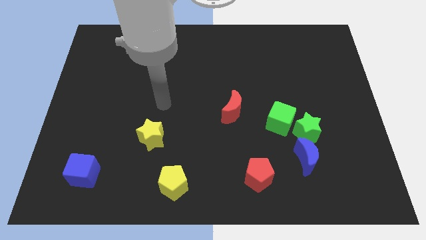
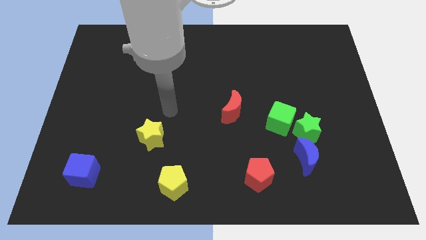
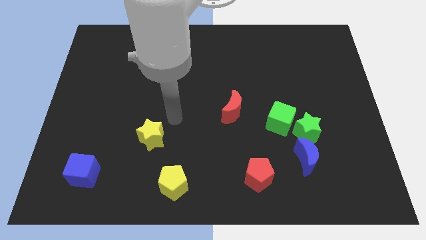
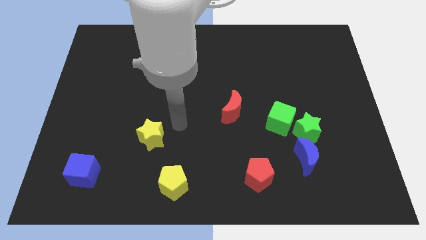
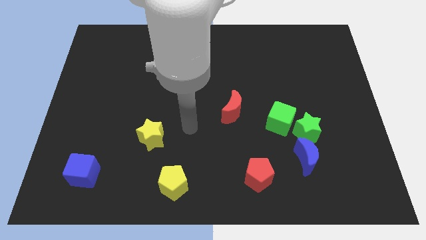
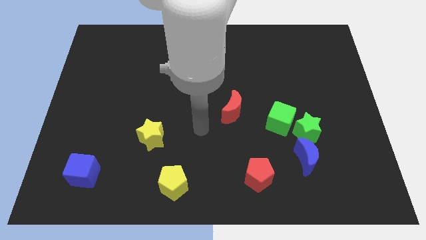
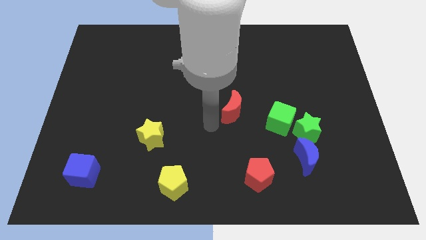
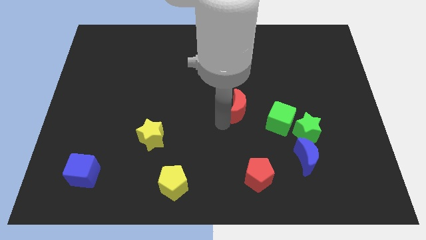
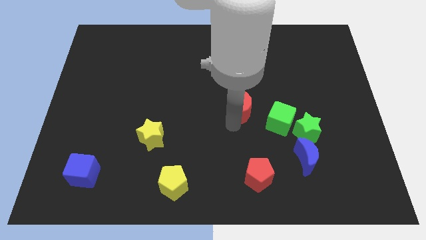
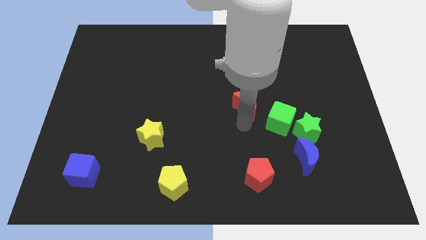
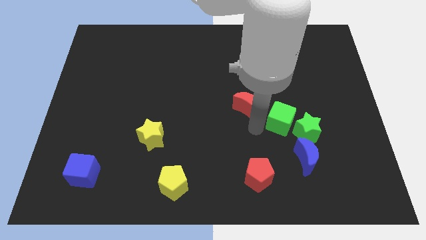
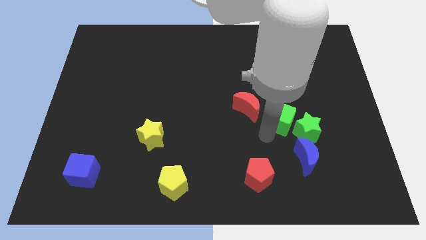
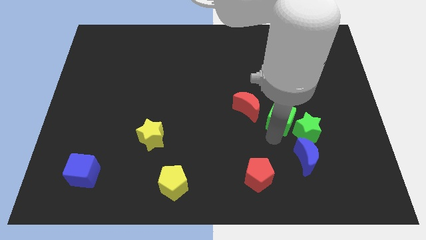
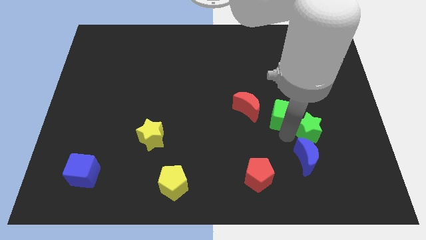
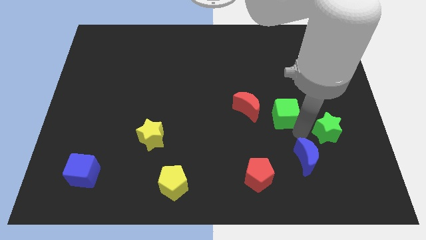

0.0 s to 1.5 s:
move the green cube away from the green star

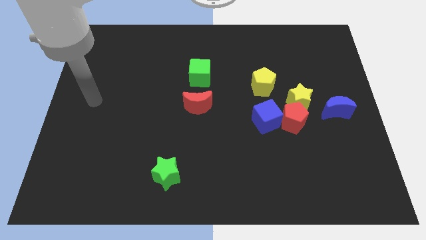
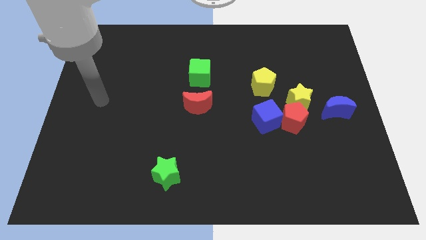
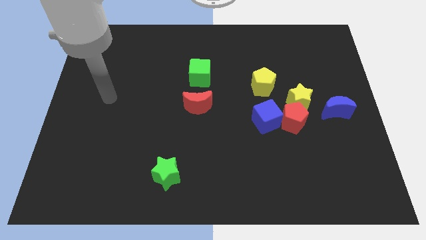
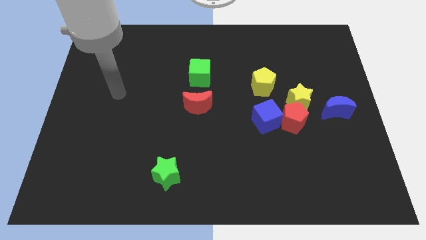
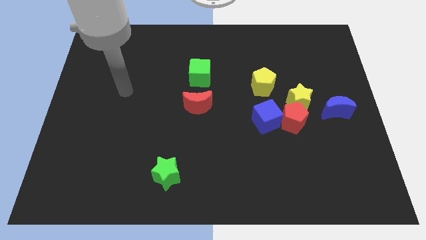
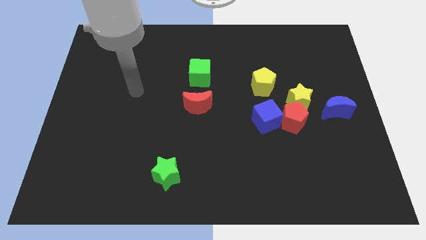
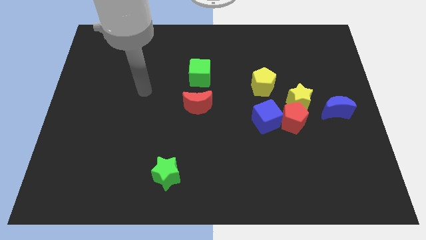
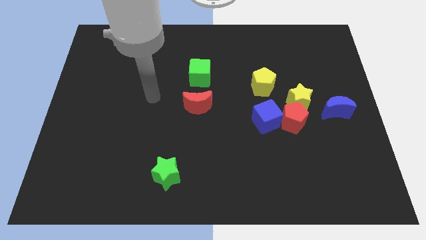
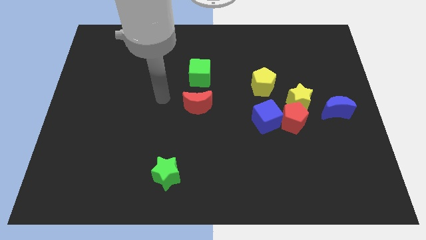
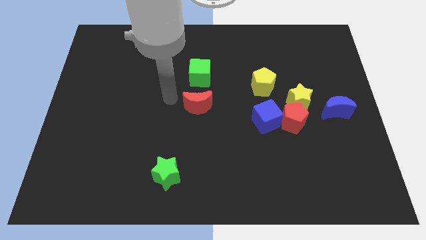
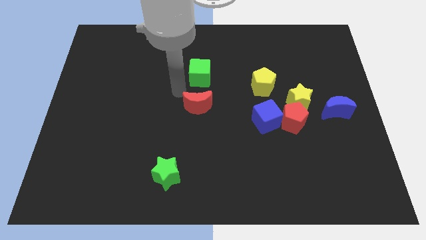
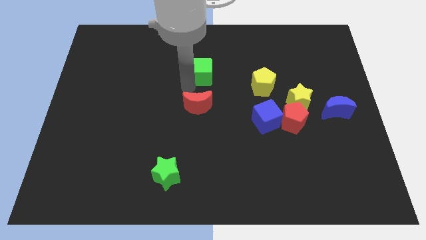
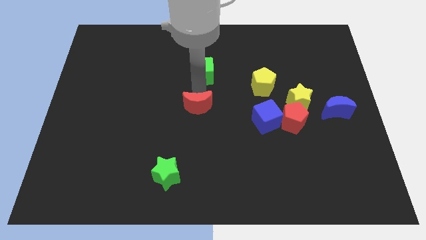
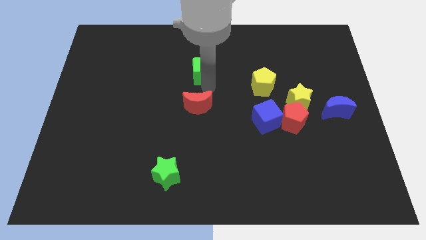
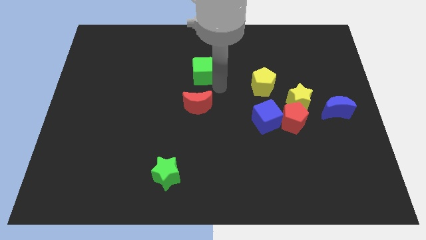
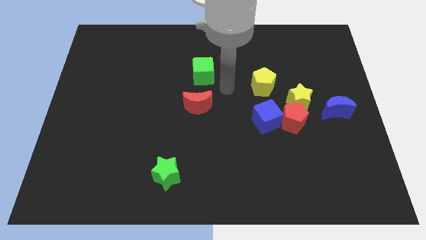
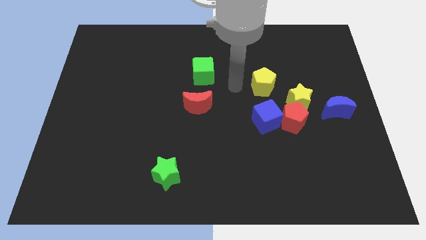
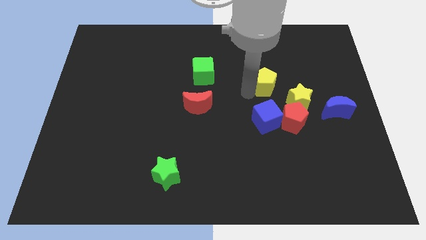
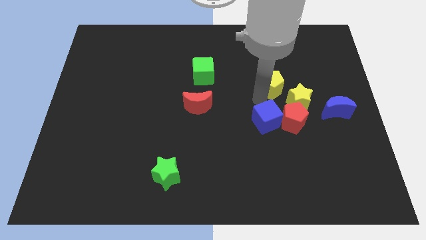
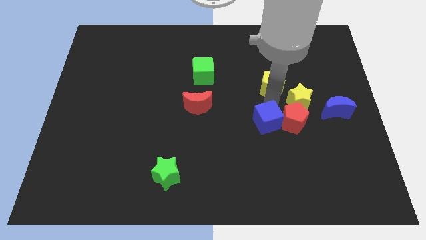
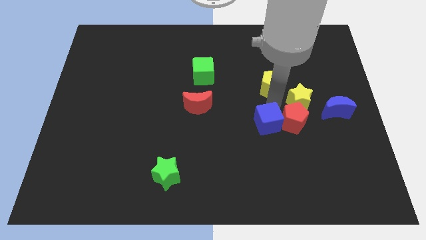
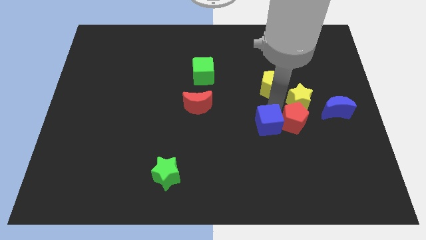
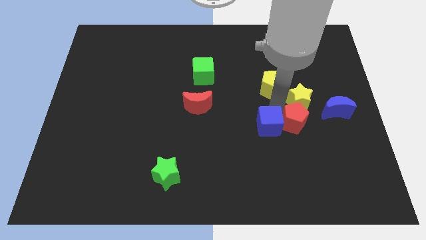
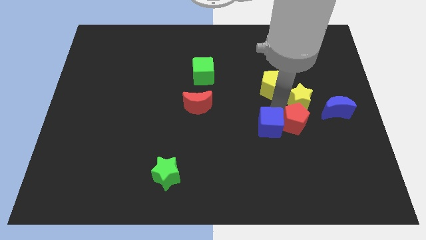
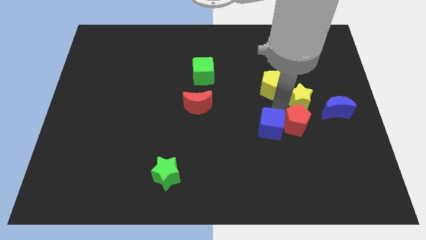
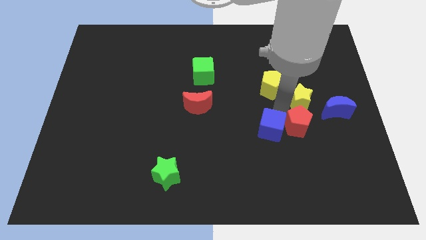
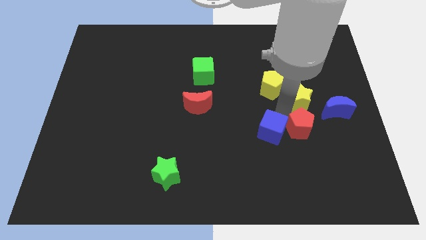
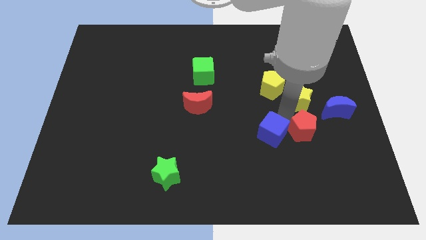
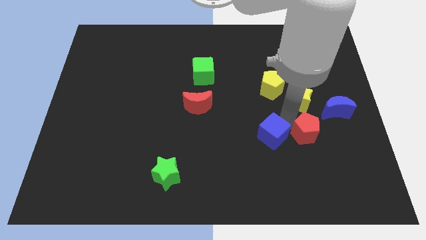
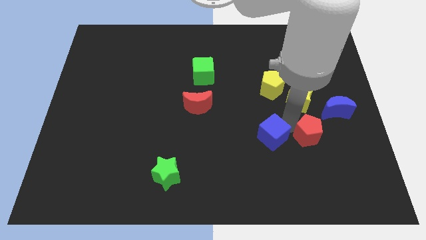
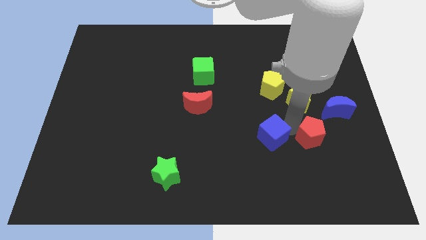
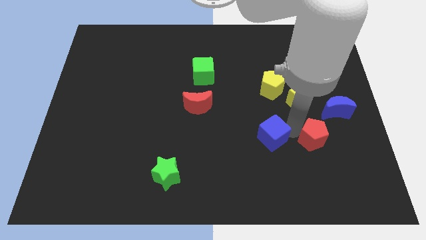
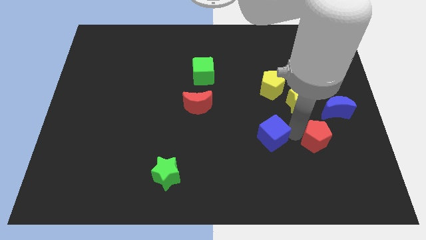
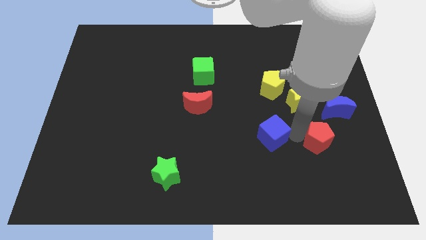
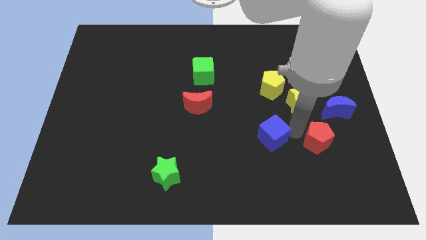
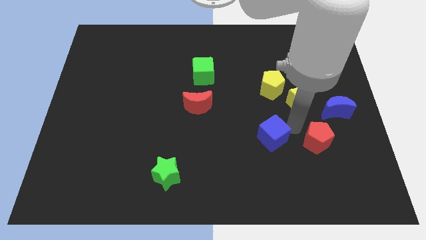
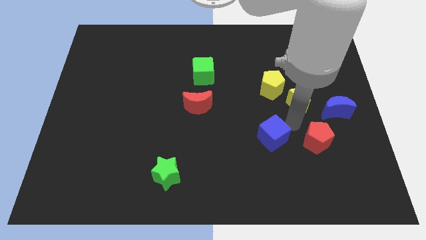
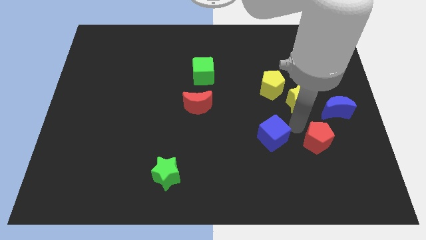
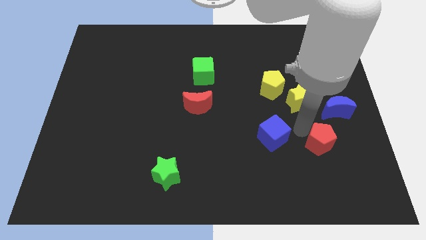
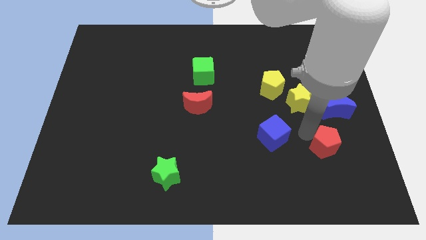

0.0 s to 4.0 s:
pull the red pentagon apart from the yellow star and blue cube

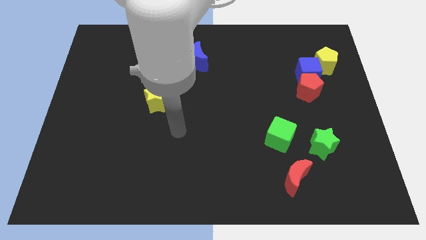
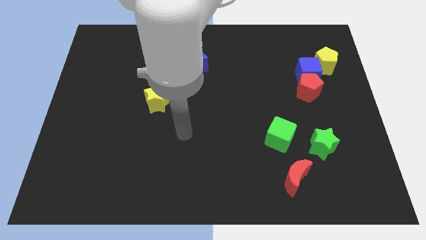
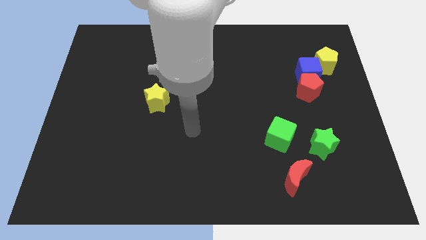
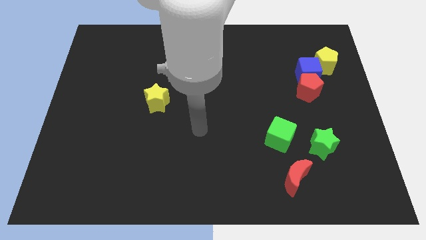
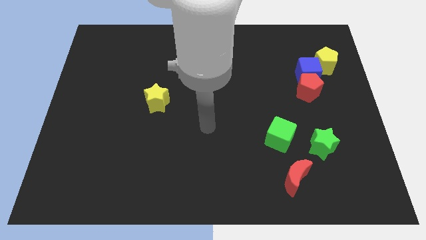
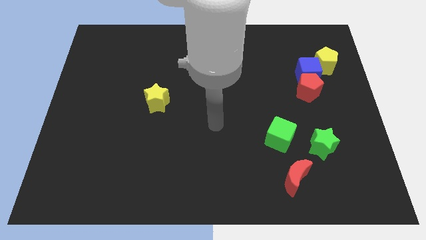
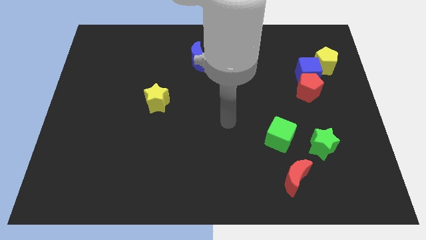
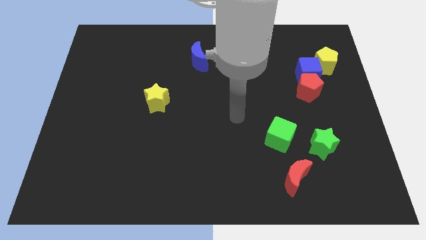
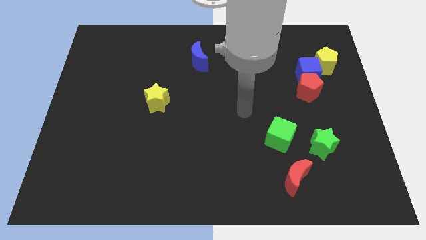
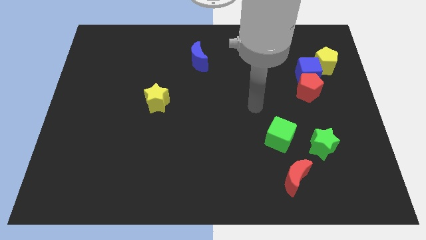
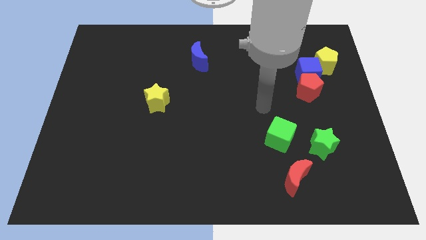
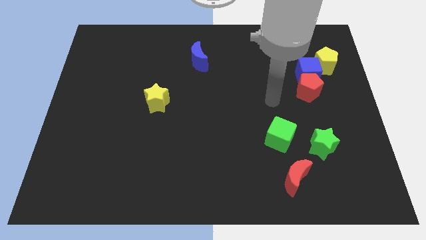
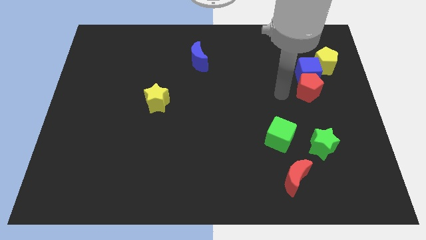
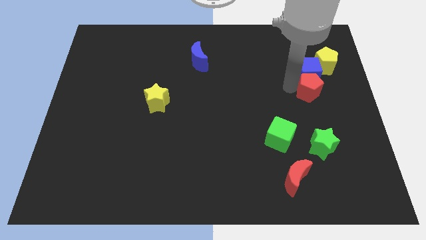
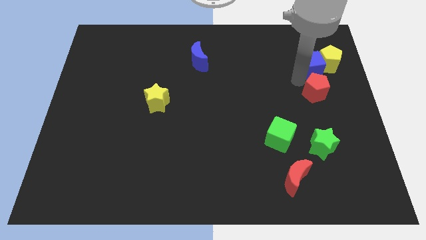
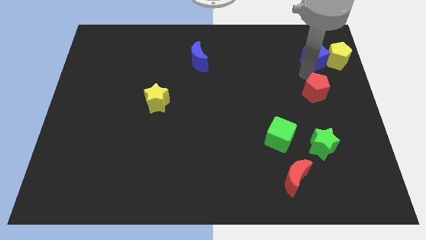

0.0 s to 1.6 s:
separate the red pentagon from the blue cube

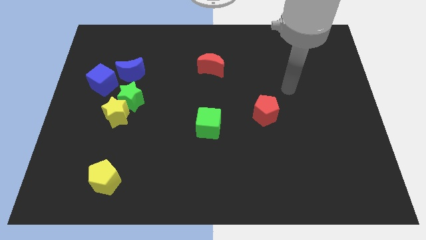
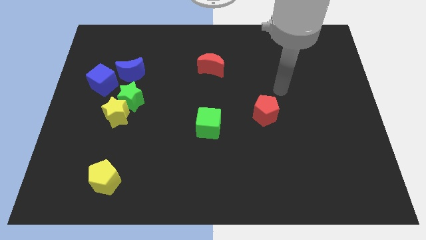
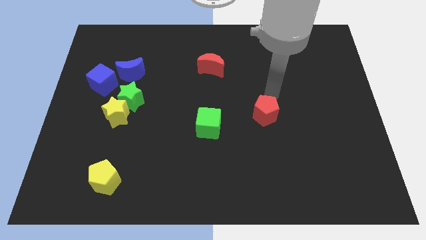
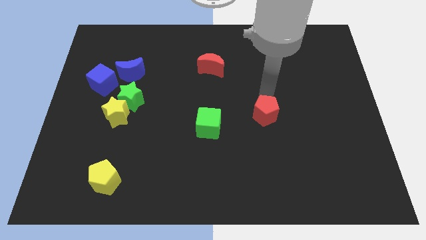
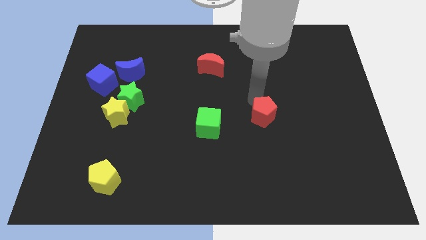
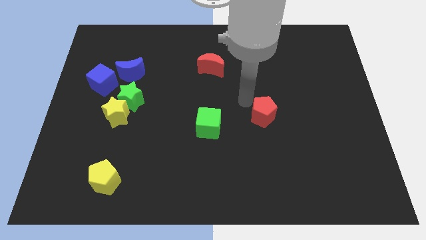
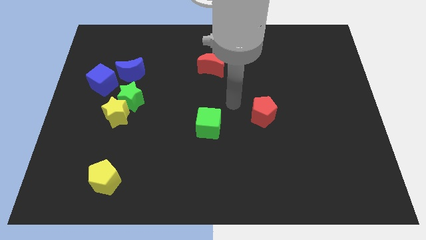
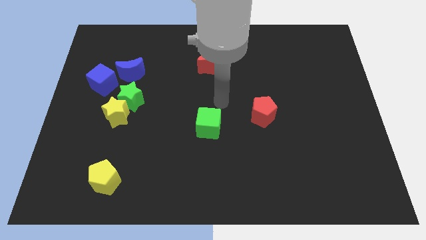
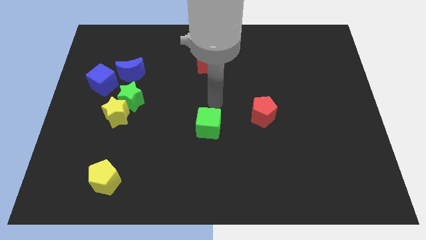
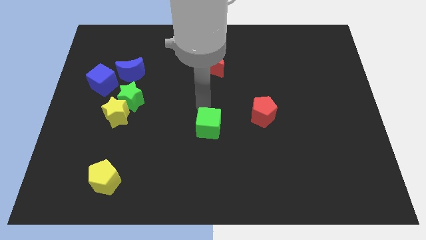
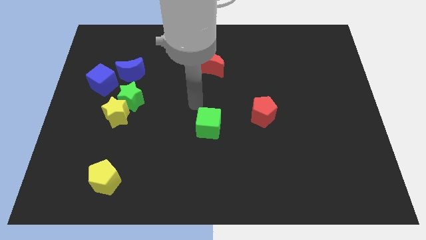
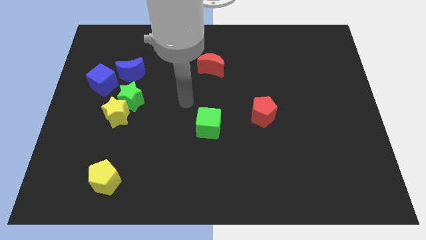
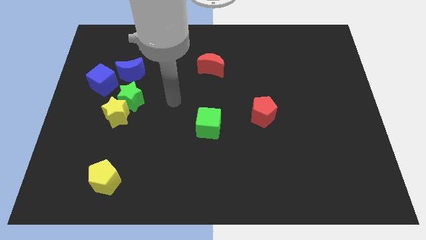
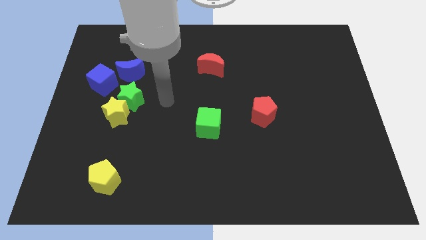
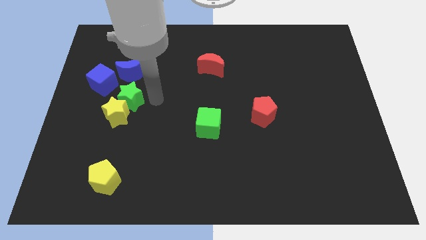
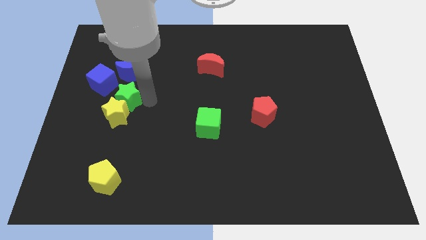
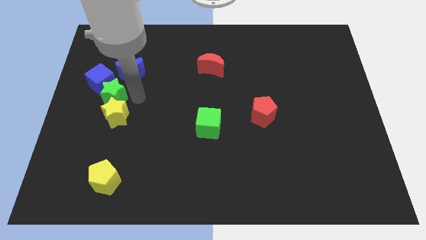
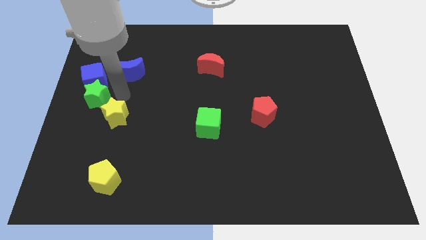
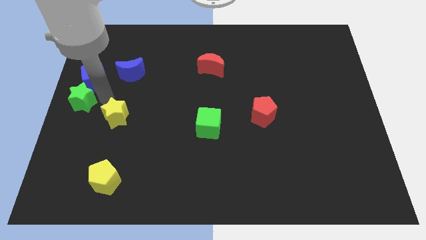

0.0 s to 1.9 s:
pull the yellow star apart from the green star

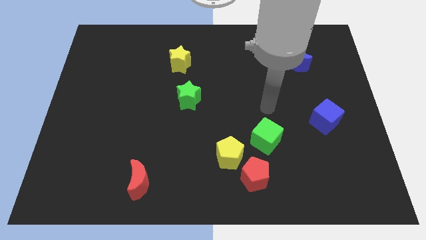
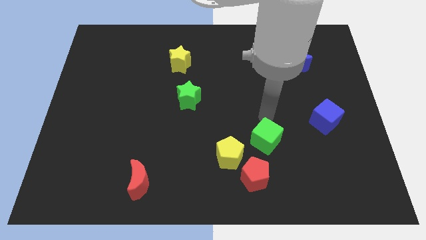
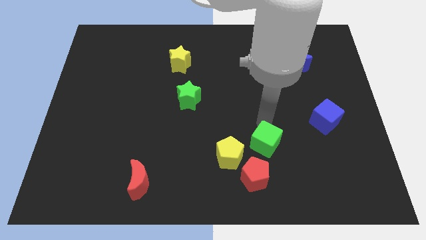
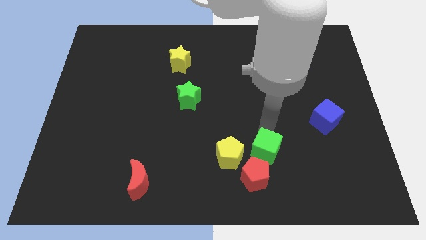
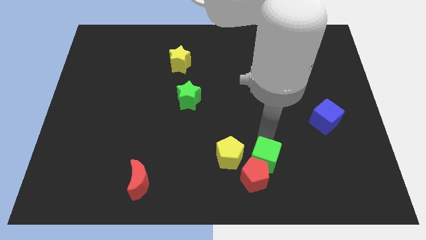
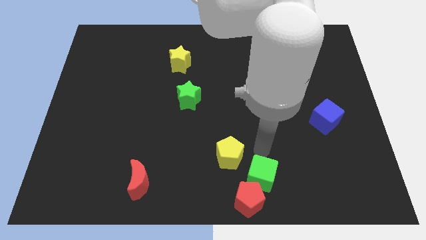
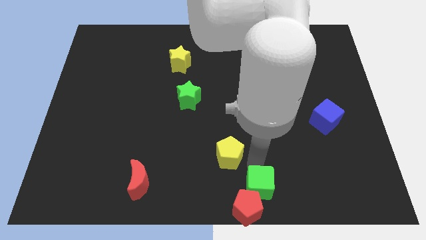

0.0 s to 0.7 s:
pull the yellow pentagon apart from the red pentagon and green cube
